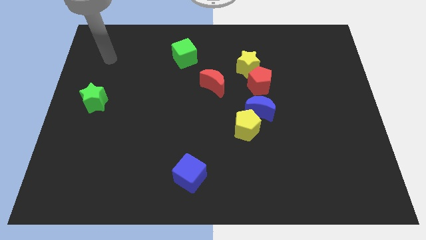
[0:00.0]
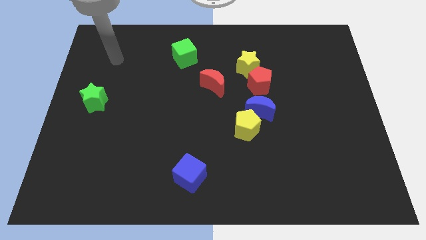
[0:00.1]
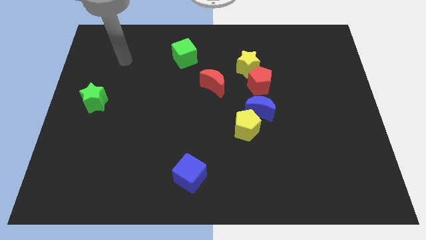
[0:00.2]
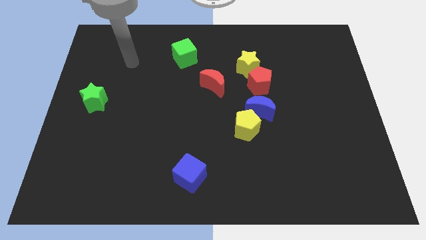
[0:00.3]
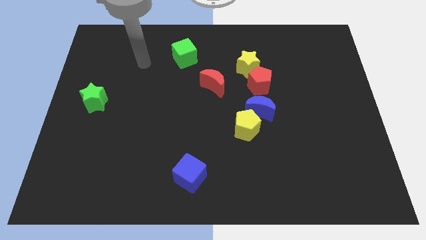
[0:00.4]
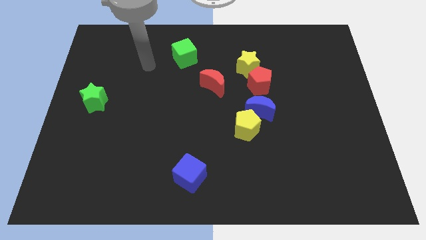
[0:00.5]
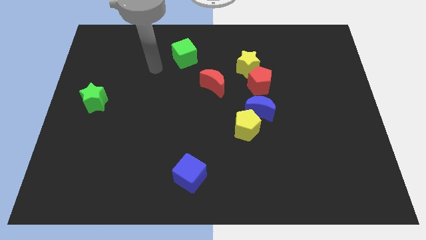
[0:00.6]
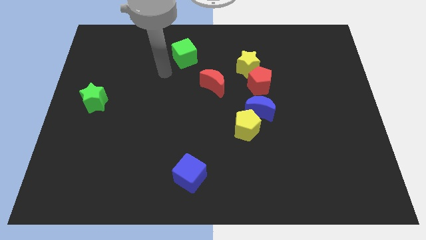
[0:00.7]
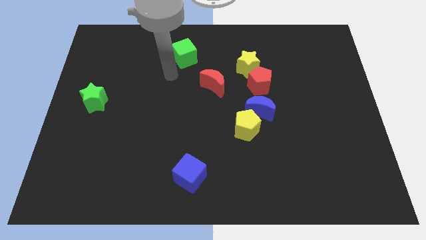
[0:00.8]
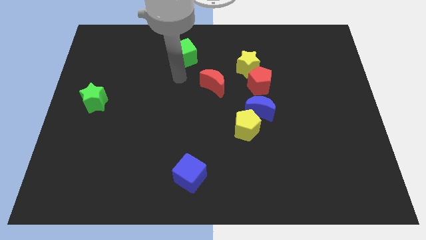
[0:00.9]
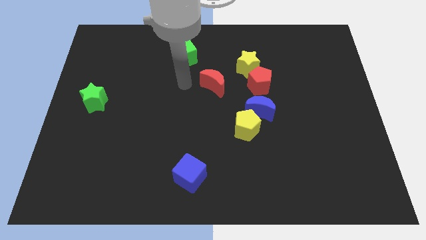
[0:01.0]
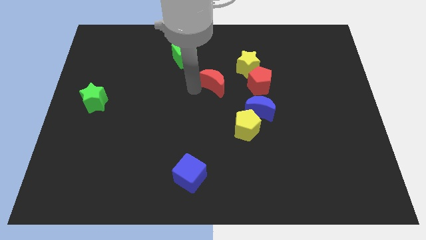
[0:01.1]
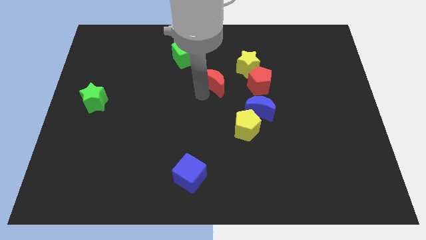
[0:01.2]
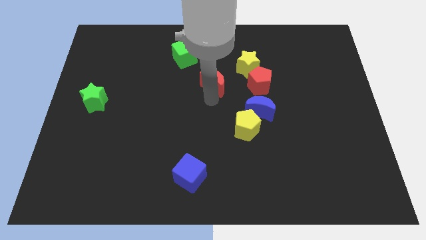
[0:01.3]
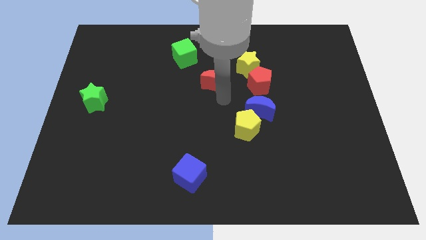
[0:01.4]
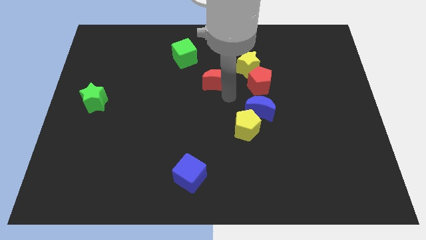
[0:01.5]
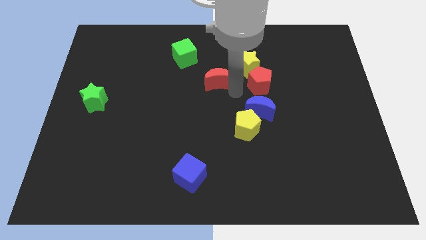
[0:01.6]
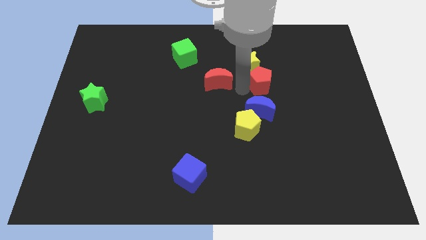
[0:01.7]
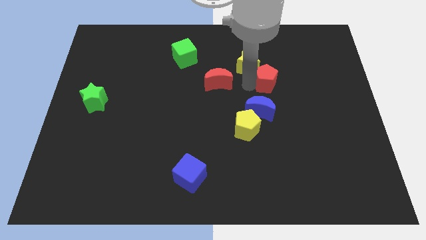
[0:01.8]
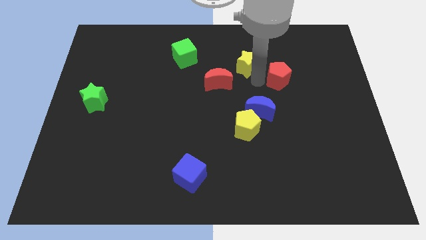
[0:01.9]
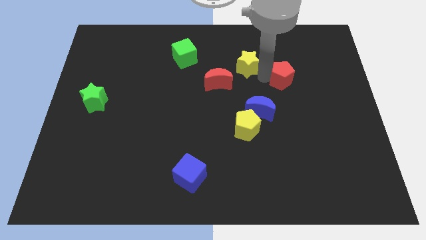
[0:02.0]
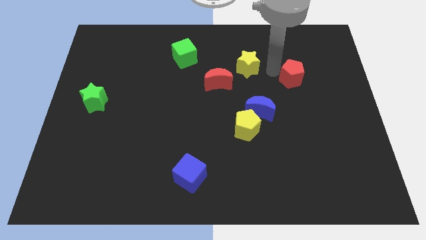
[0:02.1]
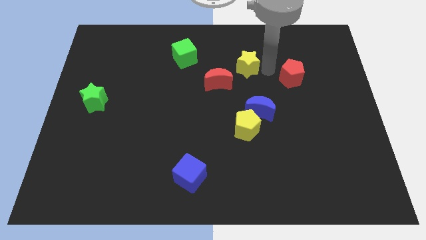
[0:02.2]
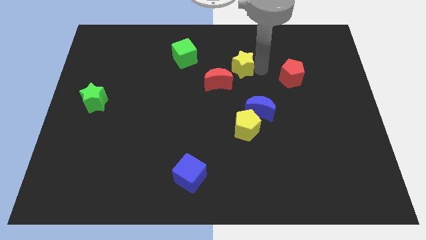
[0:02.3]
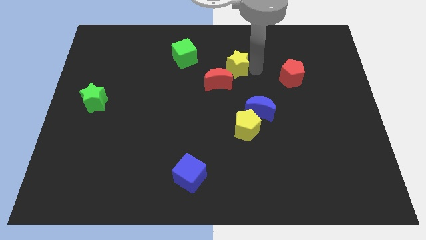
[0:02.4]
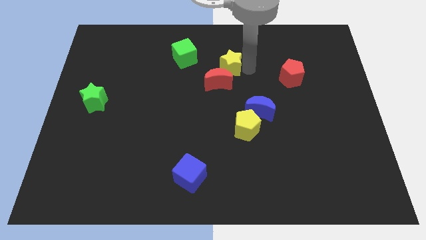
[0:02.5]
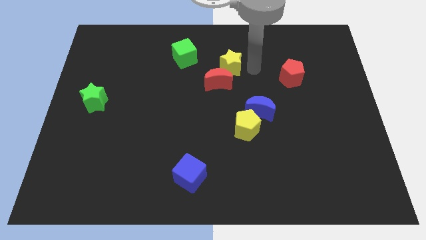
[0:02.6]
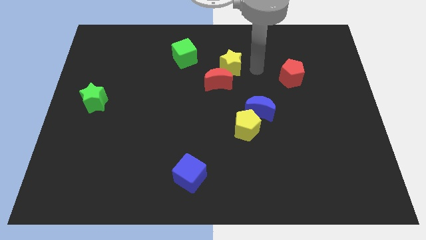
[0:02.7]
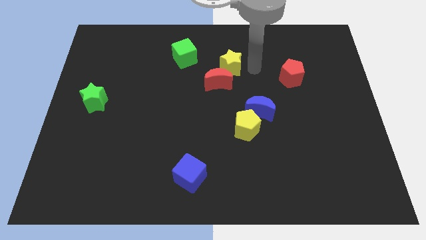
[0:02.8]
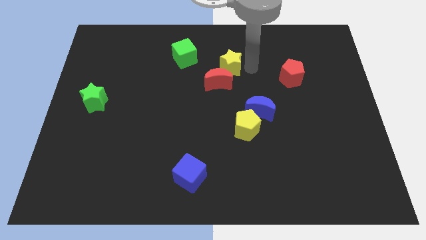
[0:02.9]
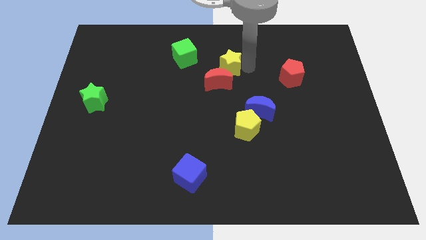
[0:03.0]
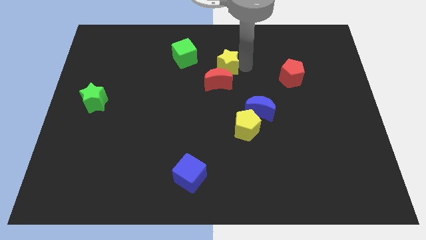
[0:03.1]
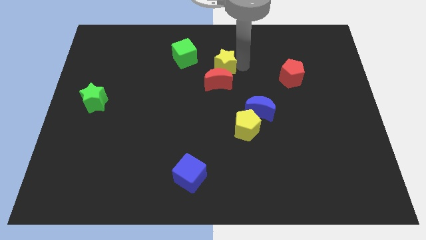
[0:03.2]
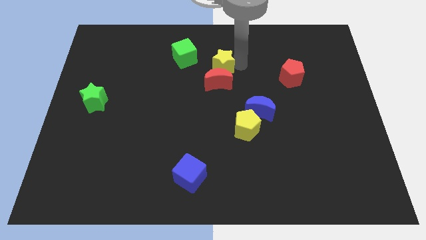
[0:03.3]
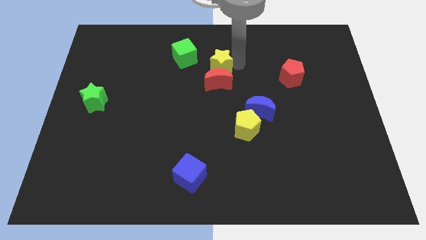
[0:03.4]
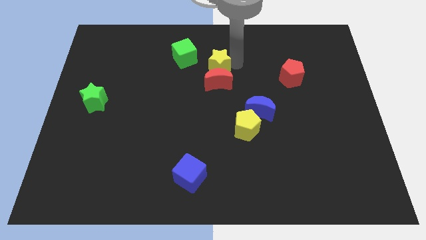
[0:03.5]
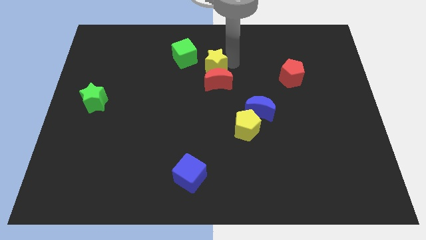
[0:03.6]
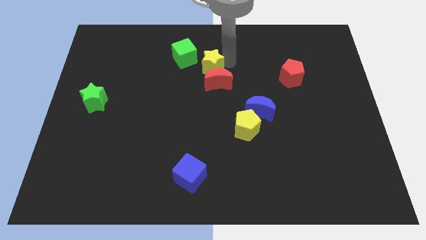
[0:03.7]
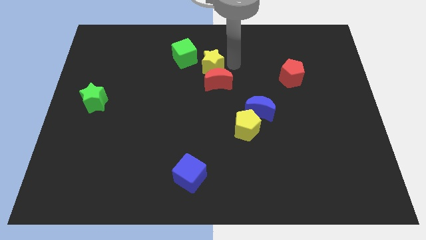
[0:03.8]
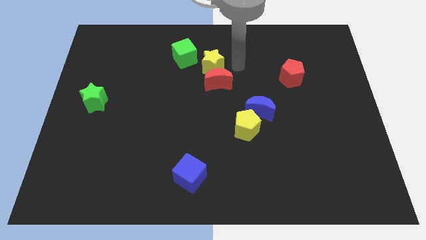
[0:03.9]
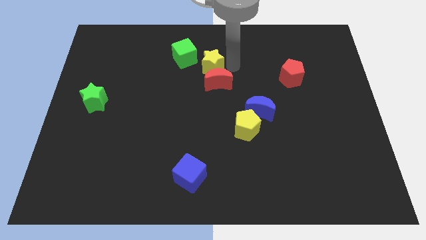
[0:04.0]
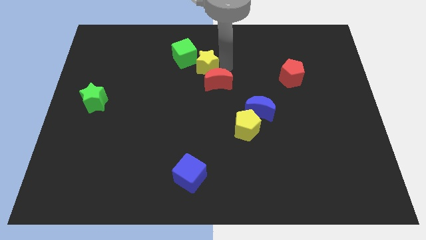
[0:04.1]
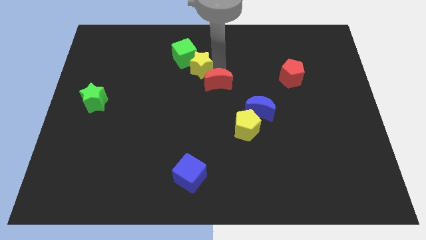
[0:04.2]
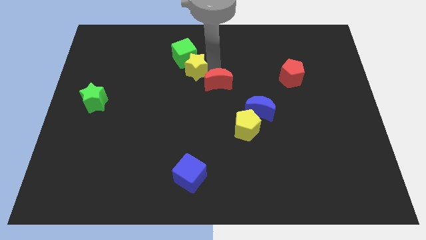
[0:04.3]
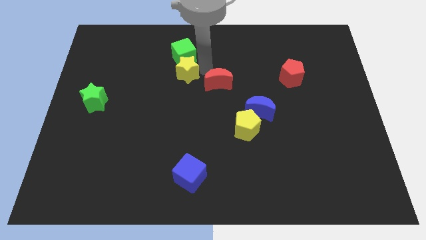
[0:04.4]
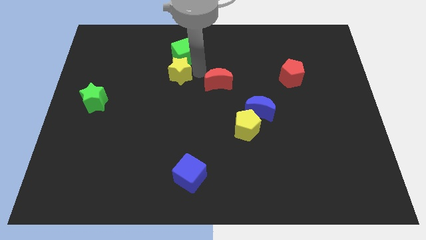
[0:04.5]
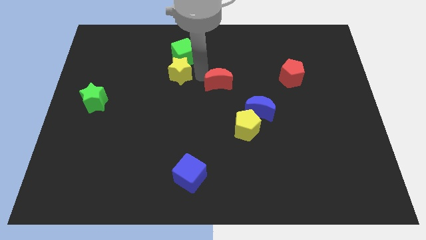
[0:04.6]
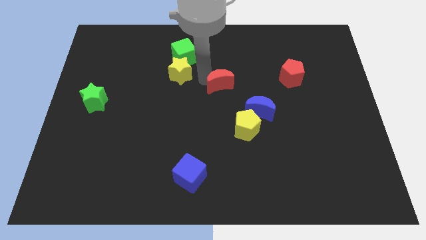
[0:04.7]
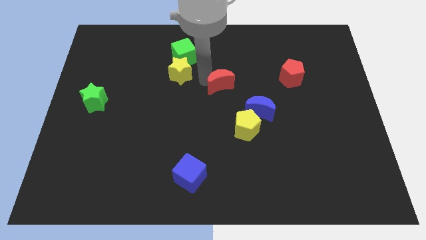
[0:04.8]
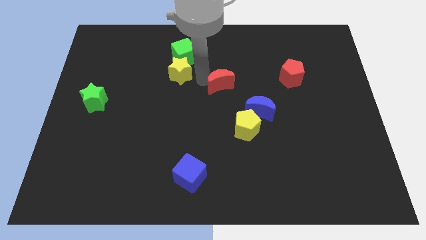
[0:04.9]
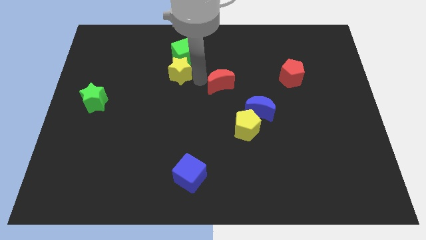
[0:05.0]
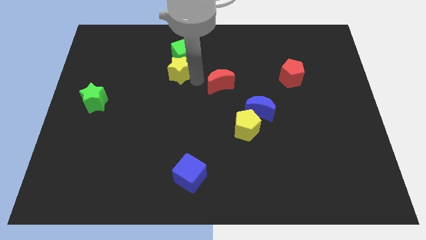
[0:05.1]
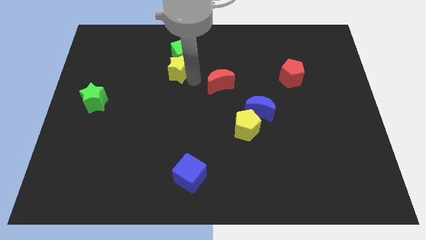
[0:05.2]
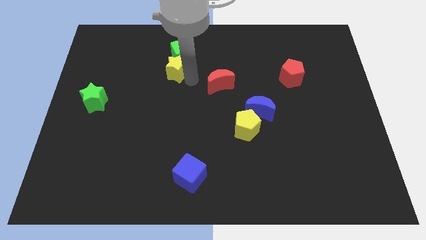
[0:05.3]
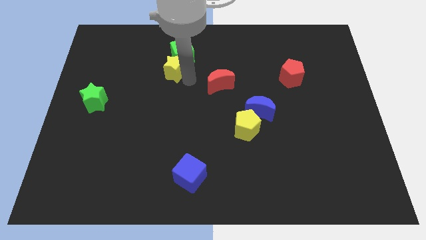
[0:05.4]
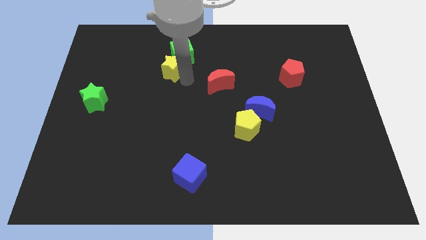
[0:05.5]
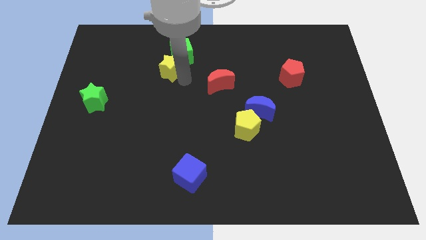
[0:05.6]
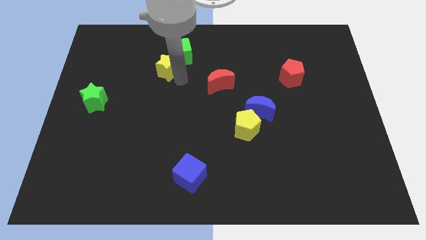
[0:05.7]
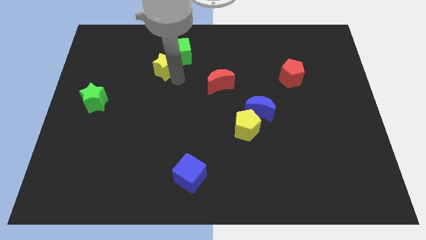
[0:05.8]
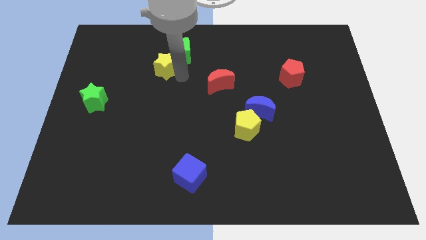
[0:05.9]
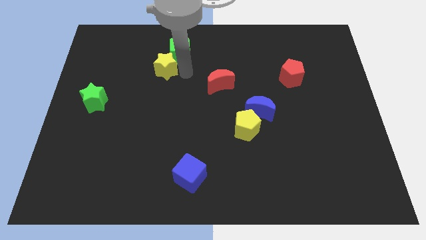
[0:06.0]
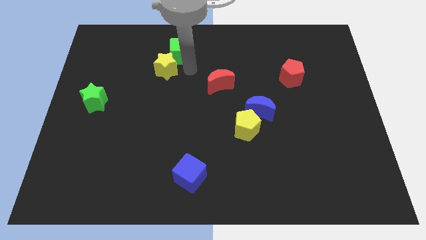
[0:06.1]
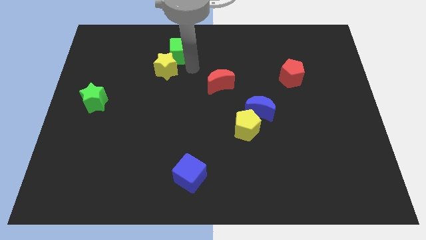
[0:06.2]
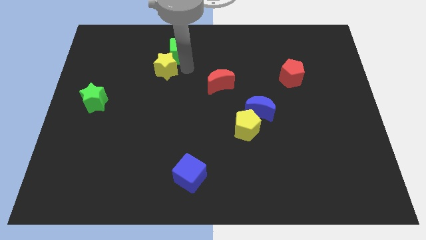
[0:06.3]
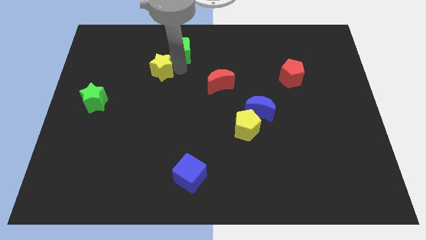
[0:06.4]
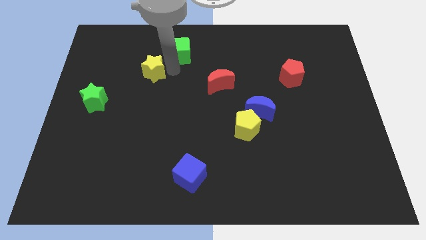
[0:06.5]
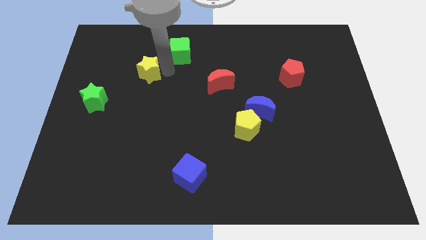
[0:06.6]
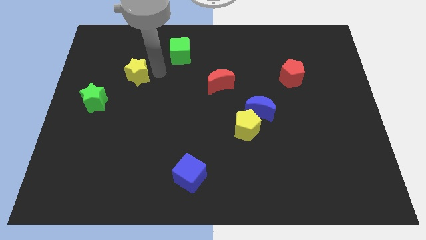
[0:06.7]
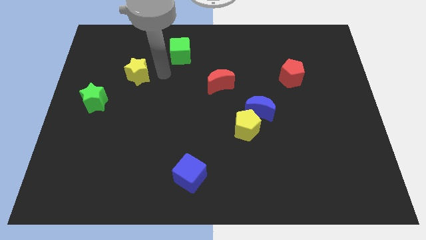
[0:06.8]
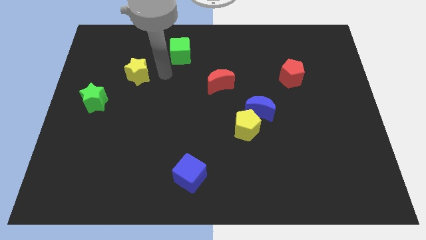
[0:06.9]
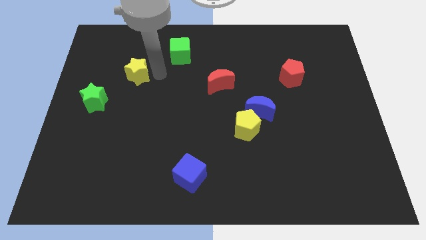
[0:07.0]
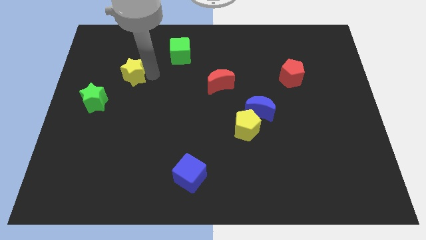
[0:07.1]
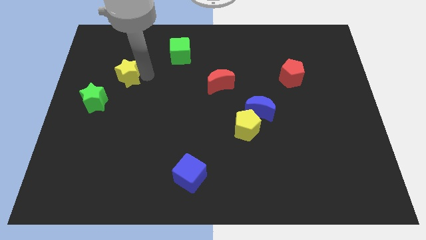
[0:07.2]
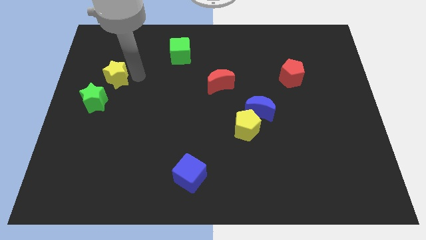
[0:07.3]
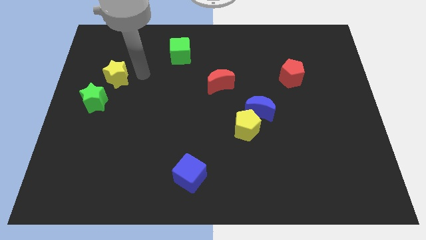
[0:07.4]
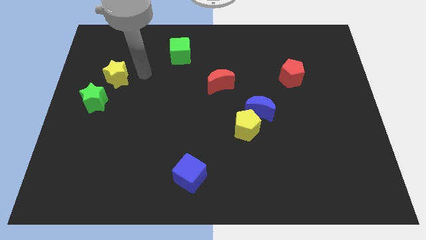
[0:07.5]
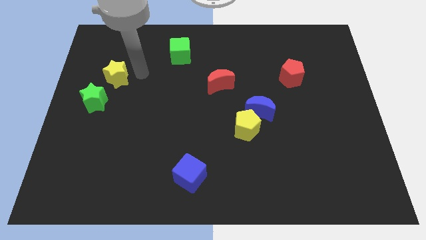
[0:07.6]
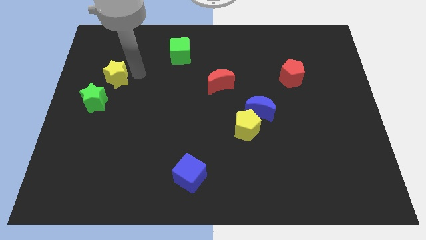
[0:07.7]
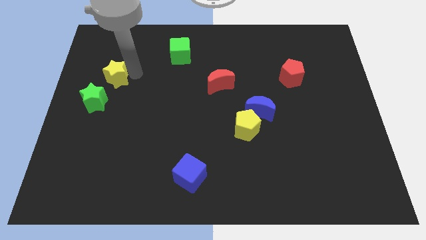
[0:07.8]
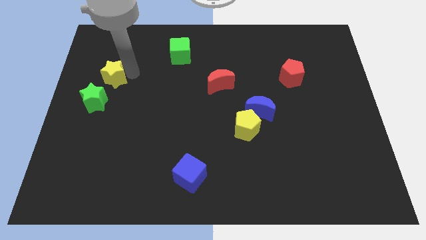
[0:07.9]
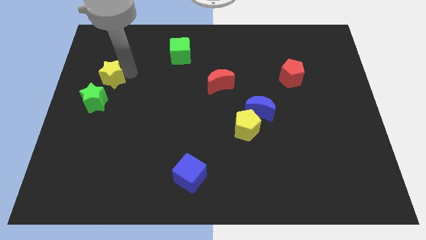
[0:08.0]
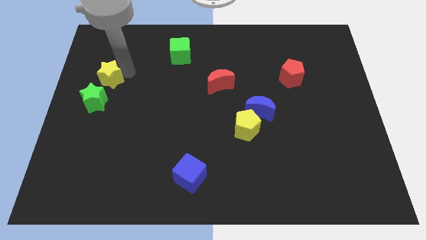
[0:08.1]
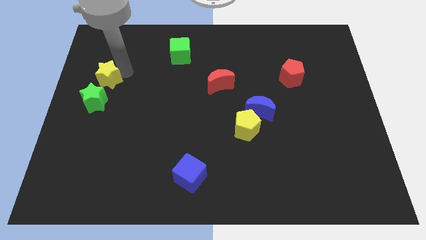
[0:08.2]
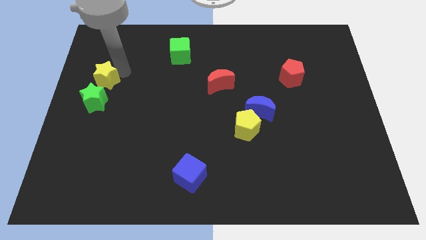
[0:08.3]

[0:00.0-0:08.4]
move the yellow star to the center left
